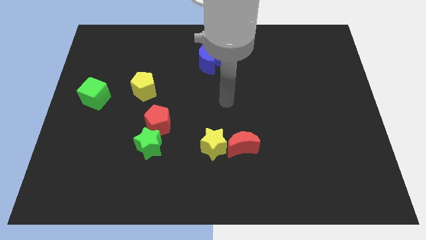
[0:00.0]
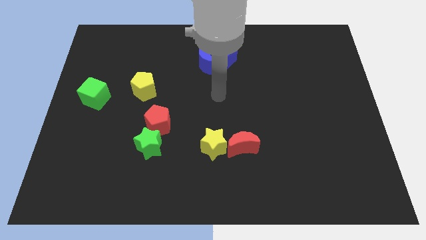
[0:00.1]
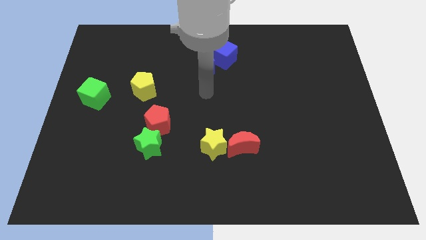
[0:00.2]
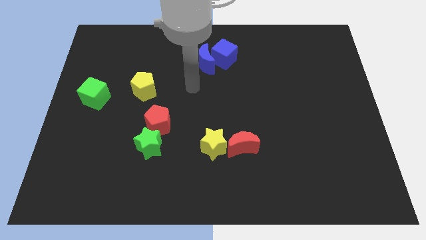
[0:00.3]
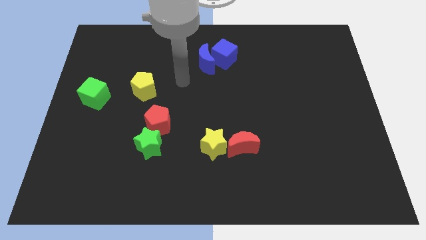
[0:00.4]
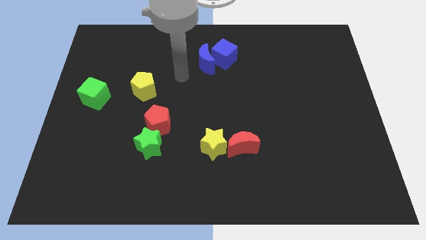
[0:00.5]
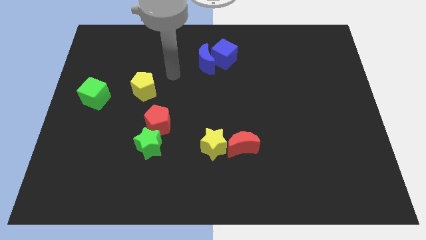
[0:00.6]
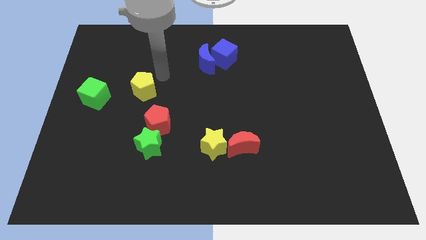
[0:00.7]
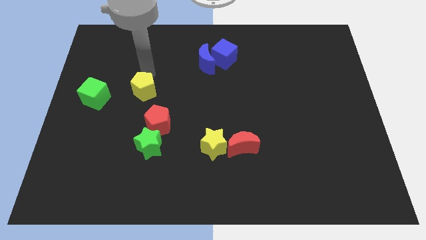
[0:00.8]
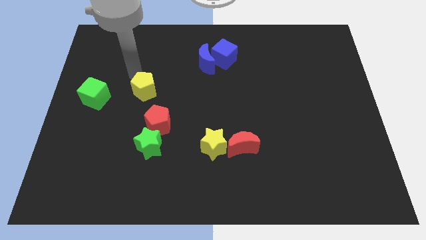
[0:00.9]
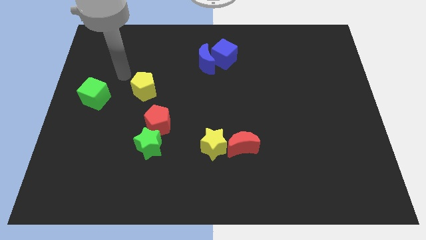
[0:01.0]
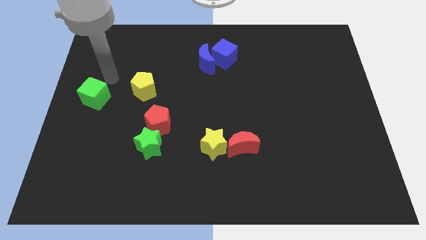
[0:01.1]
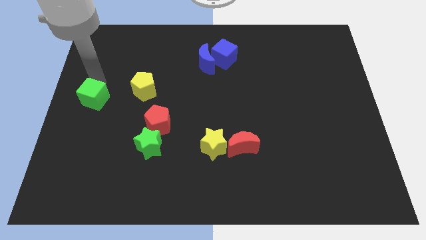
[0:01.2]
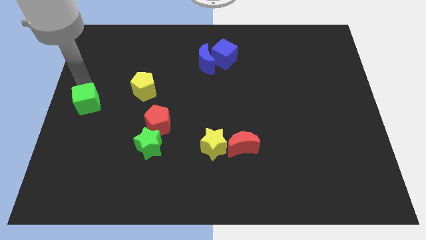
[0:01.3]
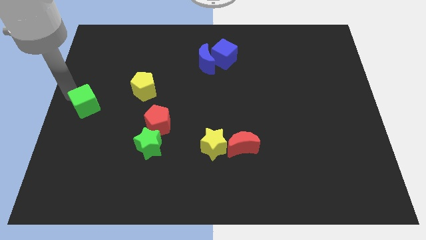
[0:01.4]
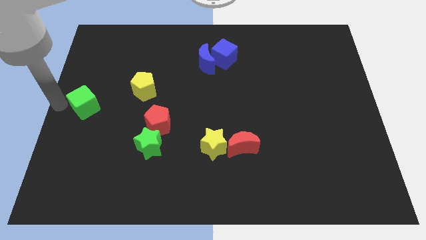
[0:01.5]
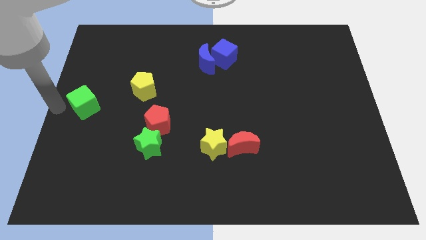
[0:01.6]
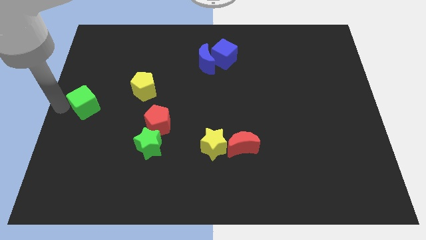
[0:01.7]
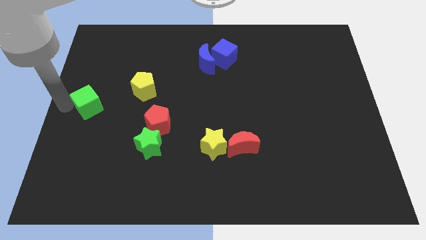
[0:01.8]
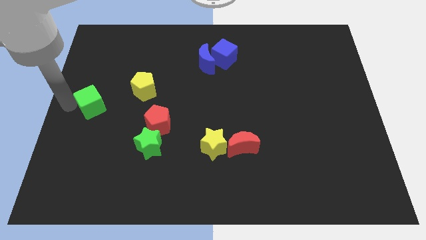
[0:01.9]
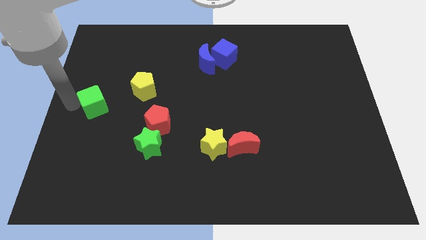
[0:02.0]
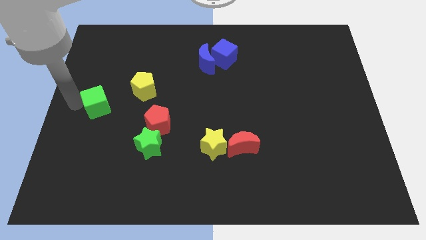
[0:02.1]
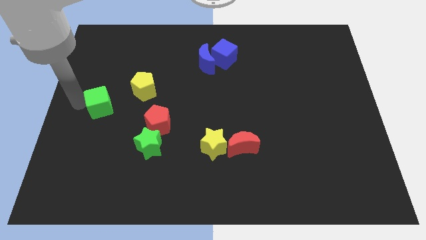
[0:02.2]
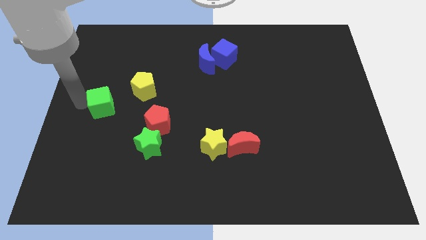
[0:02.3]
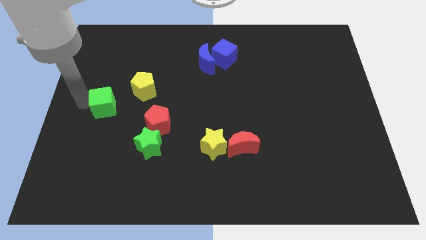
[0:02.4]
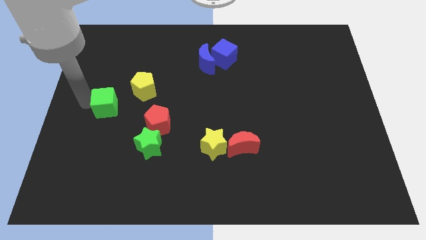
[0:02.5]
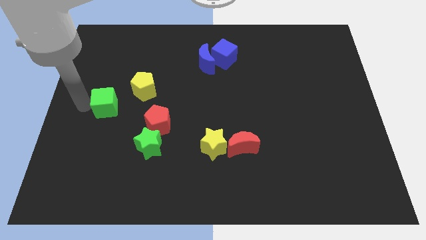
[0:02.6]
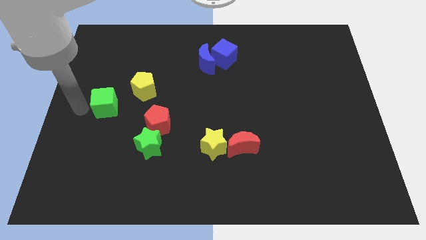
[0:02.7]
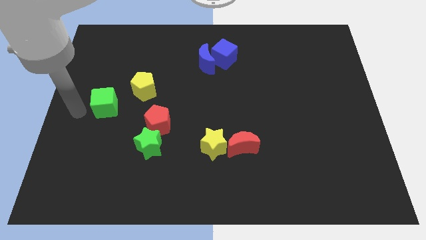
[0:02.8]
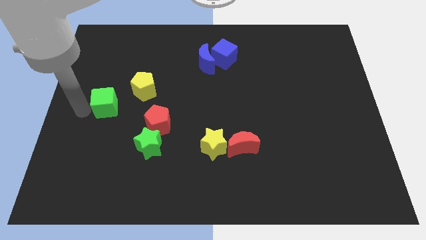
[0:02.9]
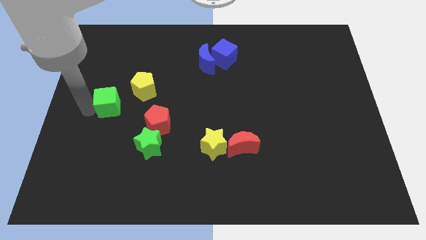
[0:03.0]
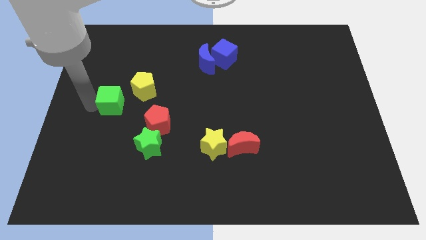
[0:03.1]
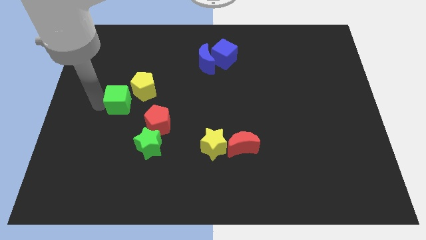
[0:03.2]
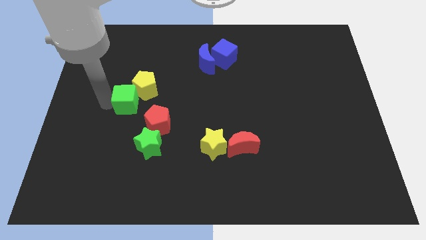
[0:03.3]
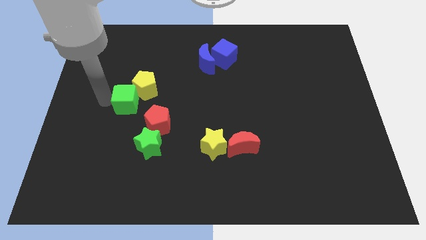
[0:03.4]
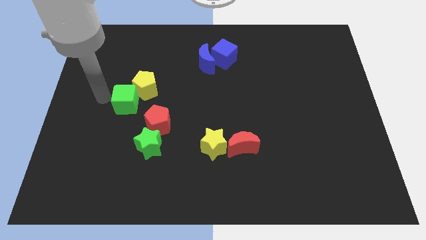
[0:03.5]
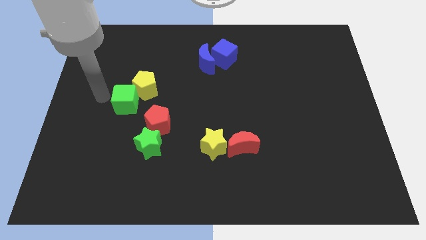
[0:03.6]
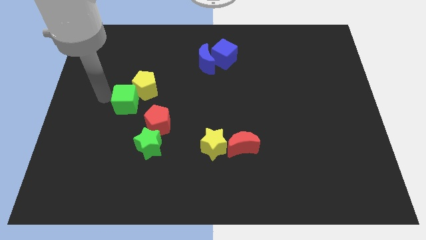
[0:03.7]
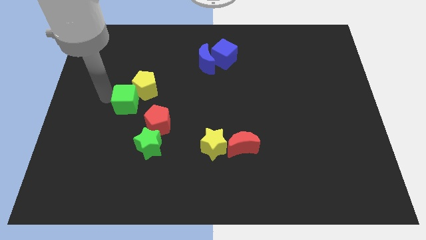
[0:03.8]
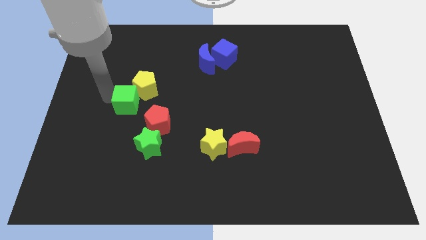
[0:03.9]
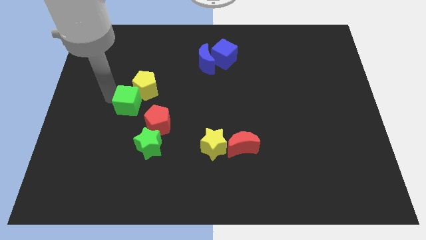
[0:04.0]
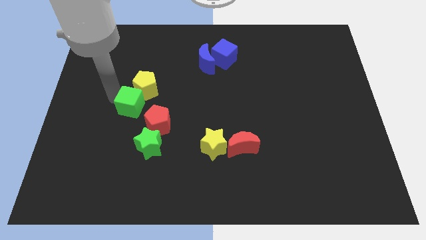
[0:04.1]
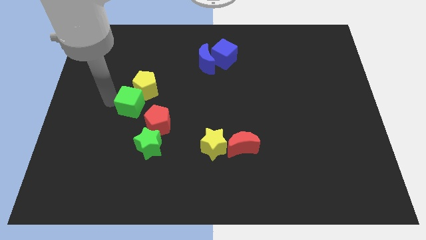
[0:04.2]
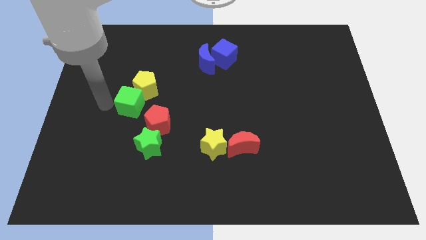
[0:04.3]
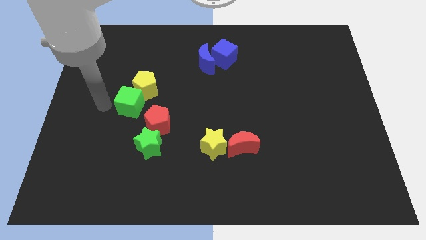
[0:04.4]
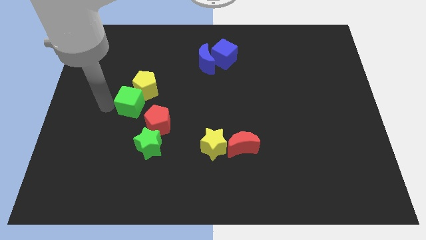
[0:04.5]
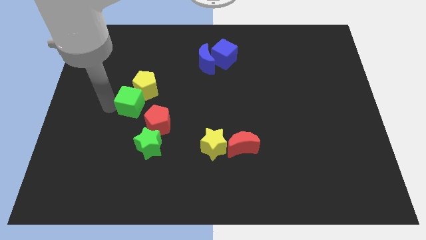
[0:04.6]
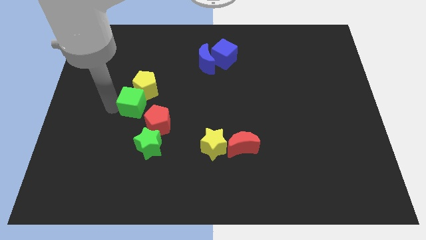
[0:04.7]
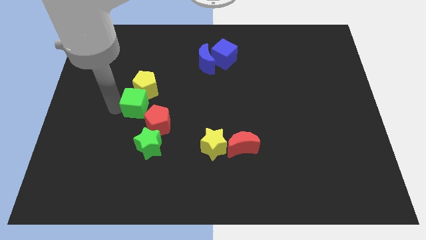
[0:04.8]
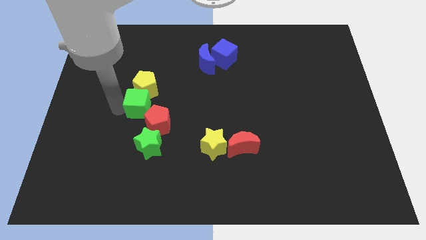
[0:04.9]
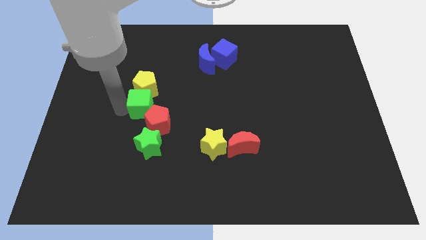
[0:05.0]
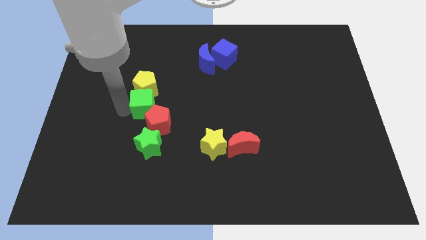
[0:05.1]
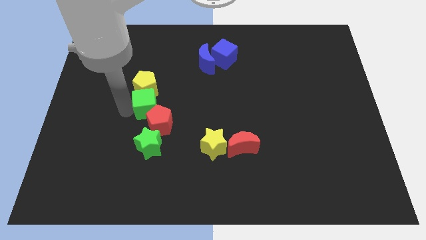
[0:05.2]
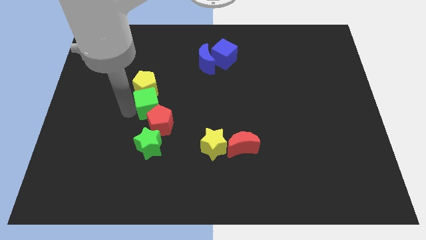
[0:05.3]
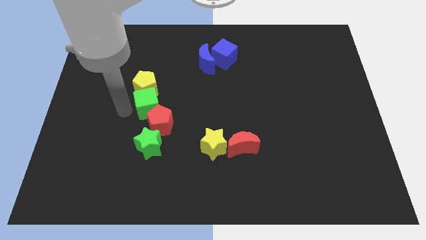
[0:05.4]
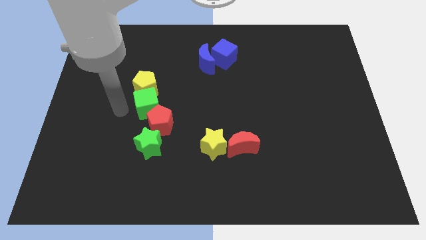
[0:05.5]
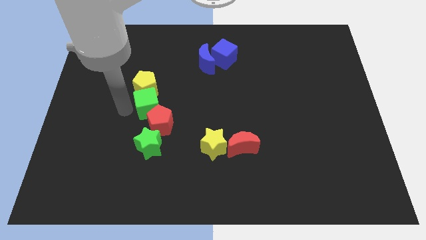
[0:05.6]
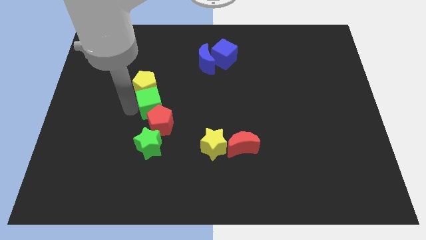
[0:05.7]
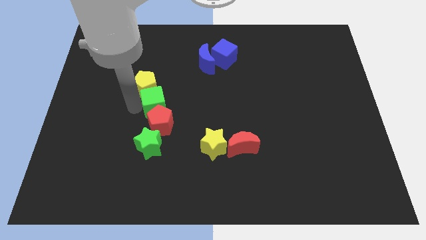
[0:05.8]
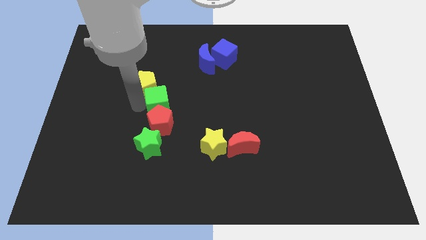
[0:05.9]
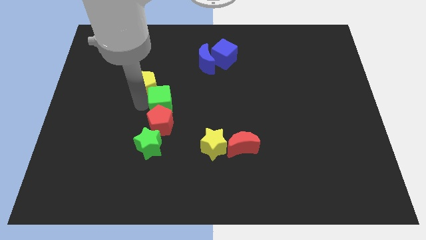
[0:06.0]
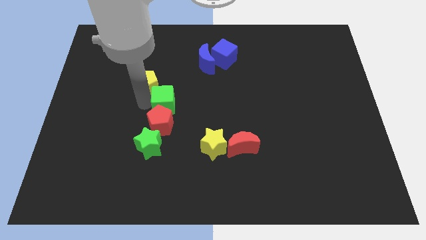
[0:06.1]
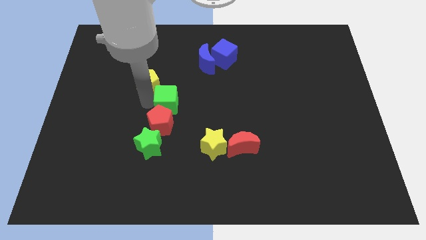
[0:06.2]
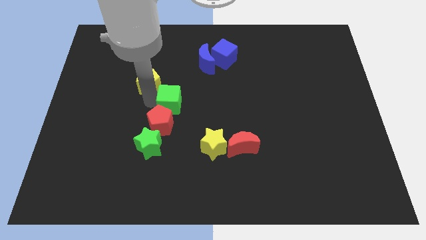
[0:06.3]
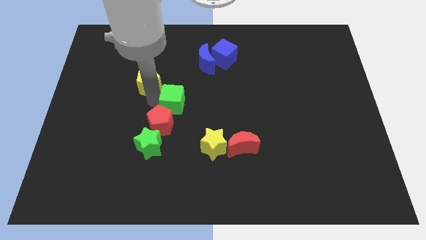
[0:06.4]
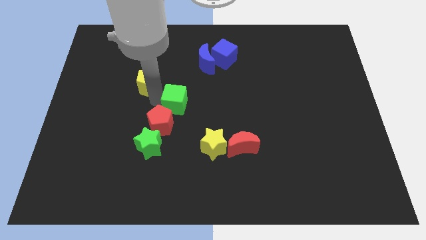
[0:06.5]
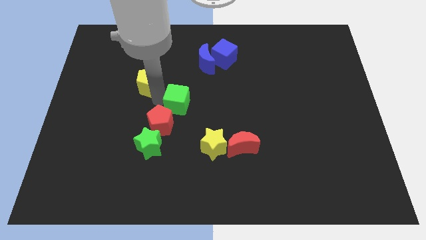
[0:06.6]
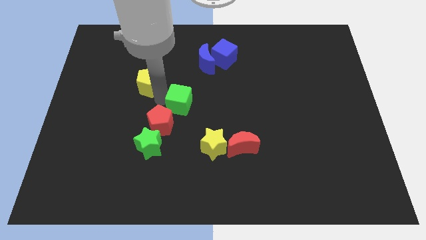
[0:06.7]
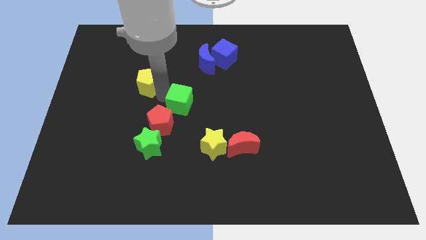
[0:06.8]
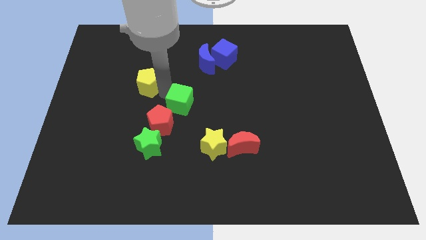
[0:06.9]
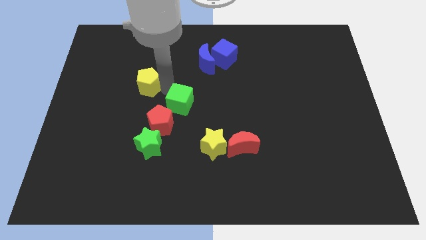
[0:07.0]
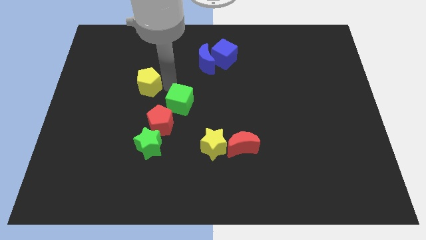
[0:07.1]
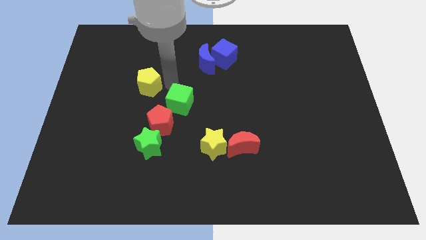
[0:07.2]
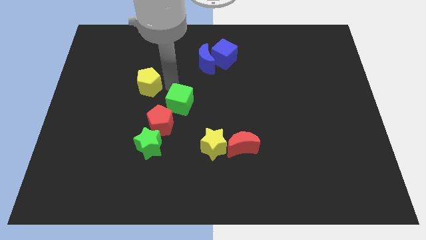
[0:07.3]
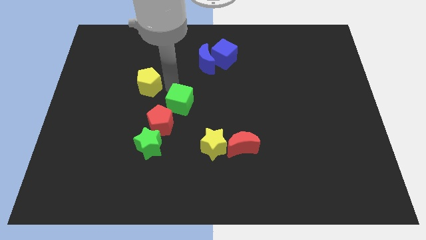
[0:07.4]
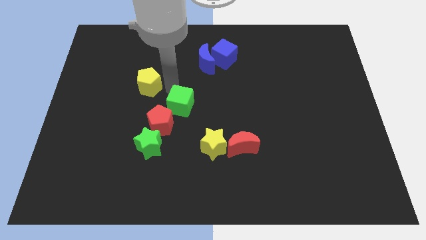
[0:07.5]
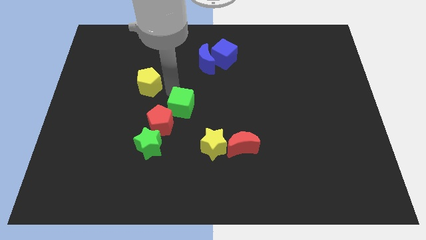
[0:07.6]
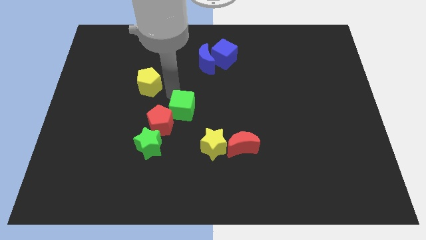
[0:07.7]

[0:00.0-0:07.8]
put the green cube to the right of the red pentagon
